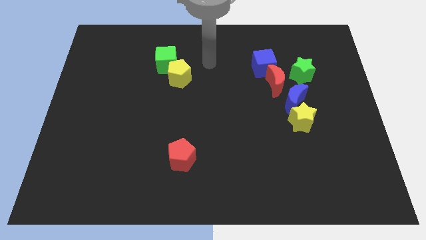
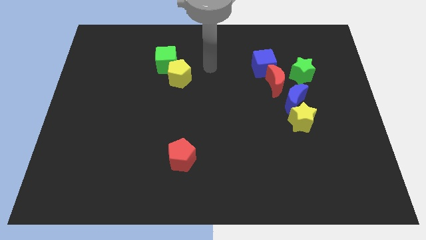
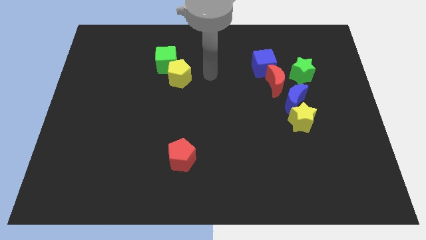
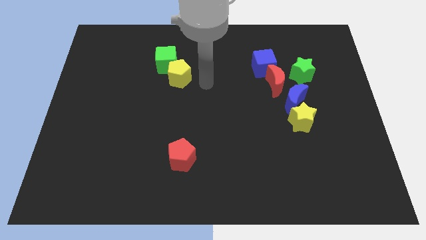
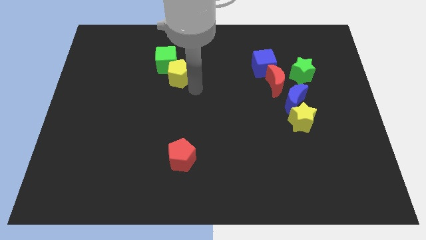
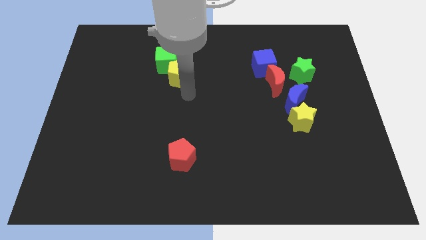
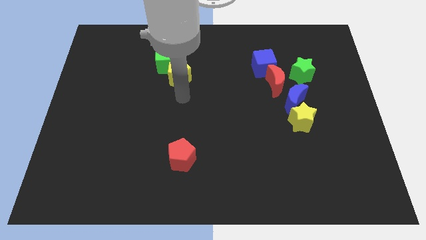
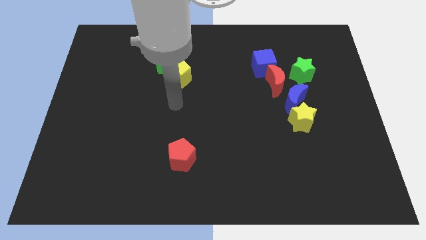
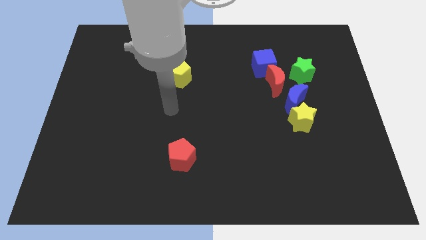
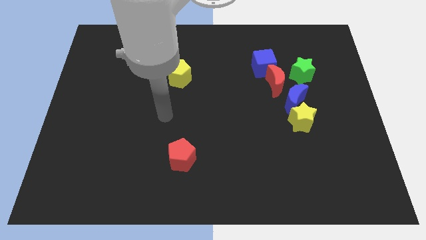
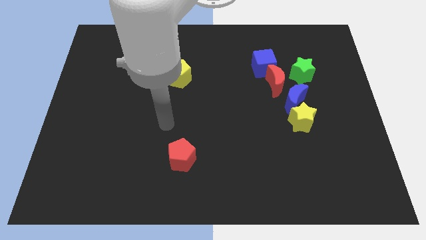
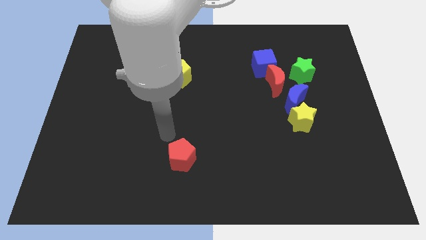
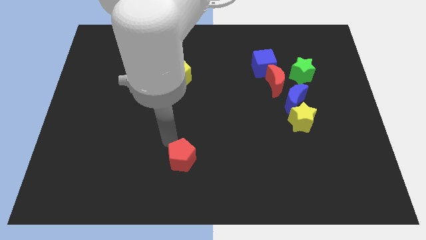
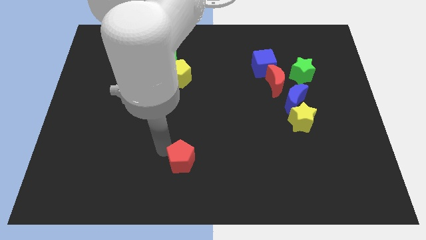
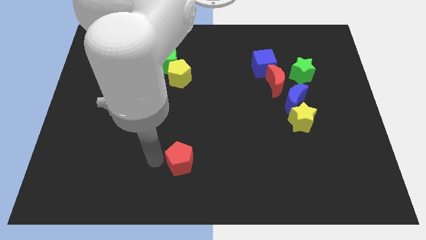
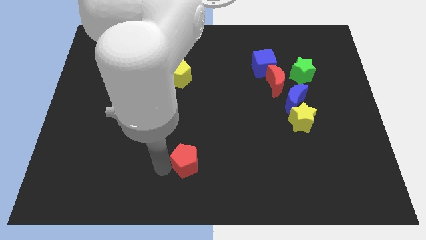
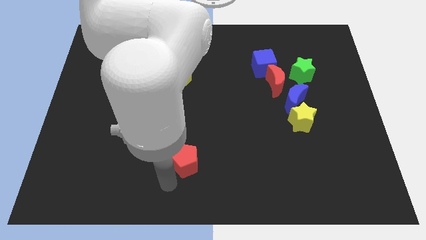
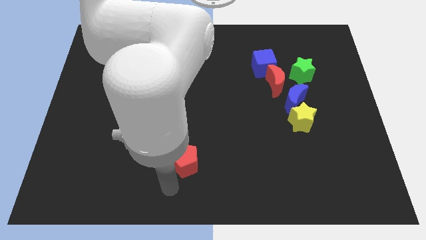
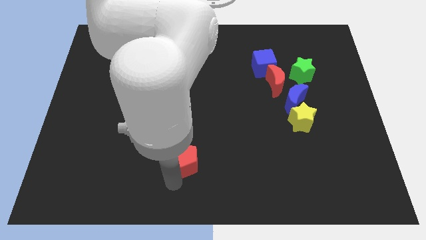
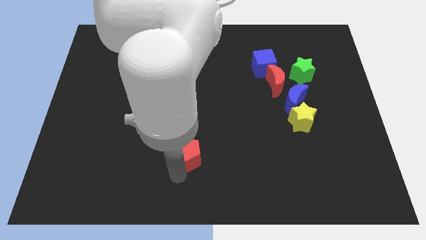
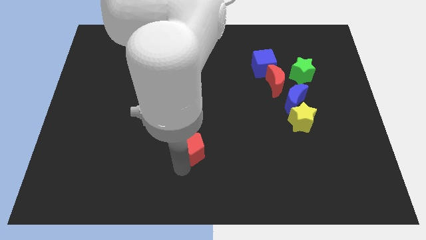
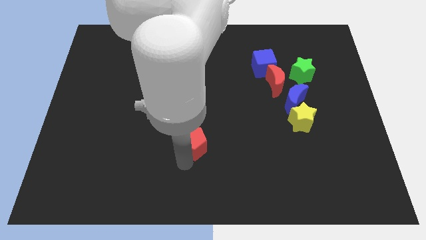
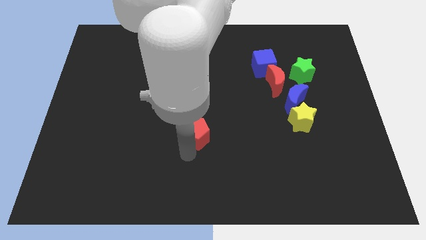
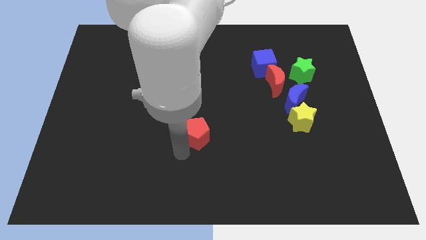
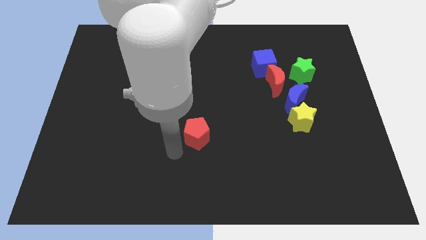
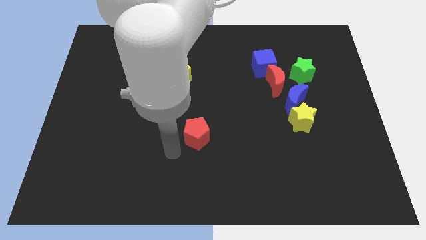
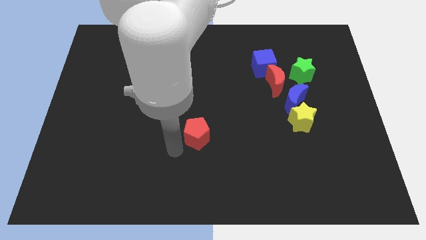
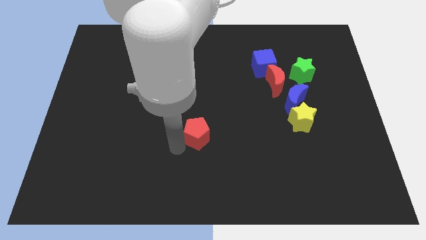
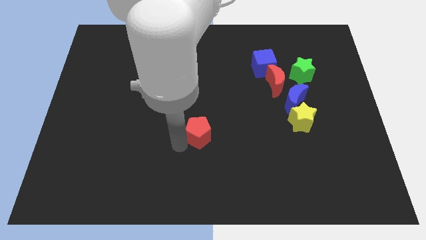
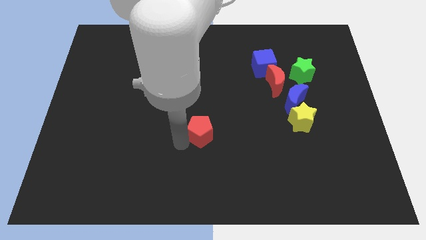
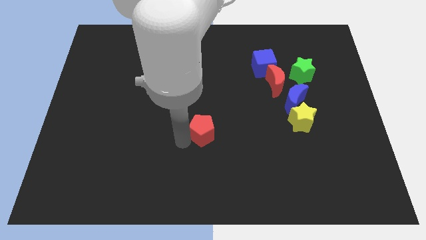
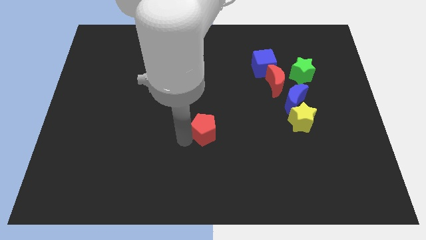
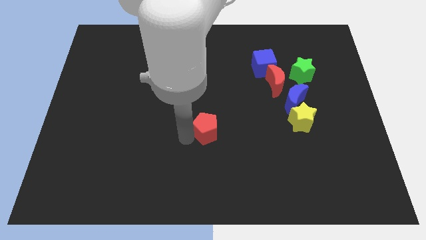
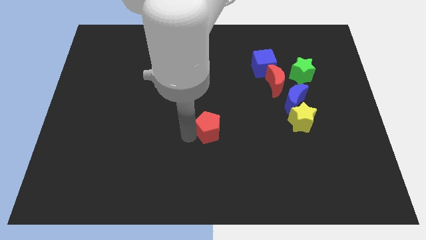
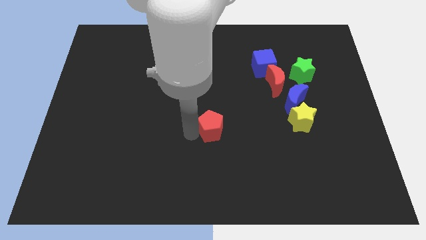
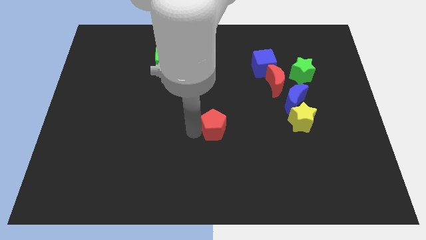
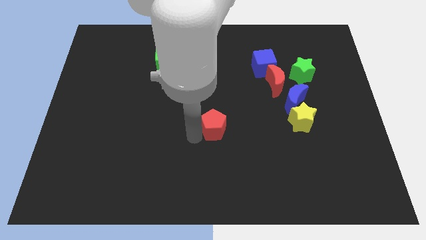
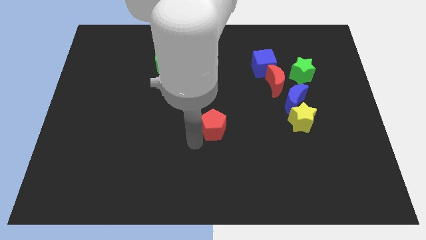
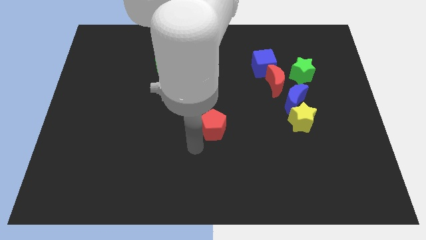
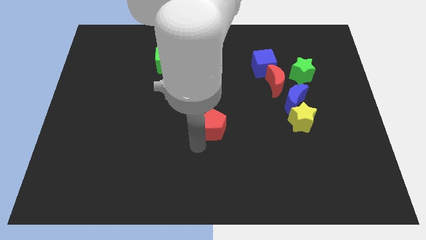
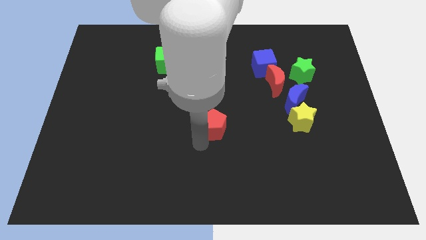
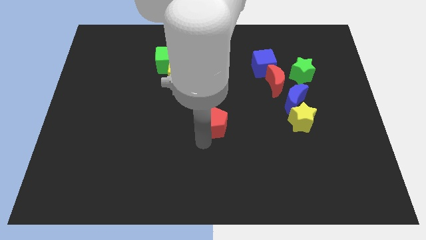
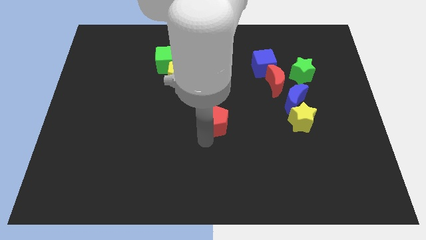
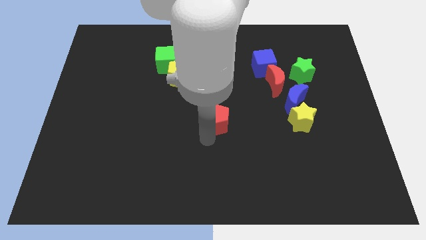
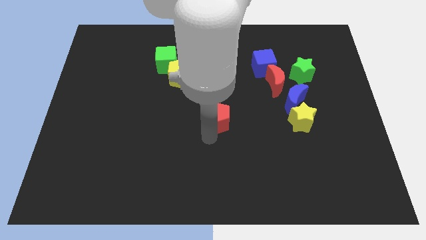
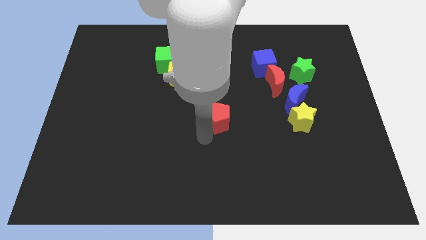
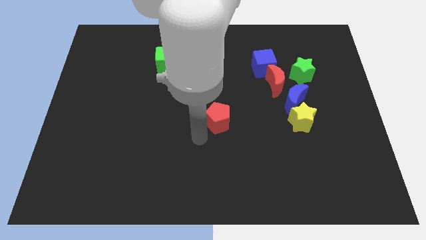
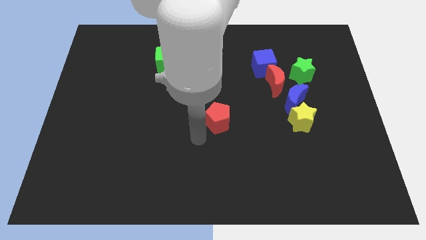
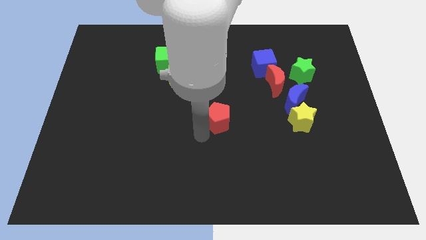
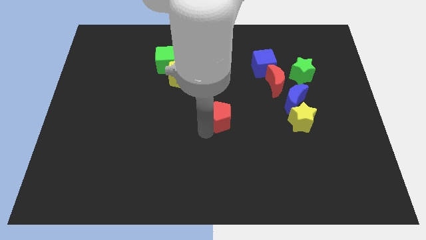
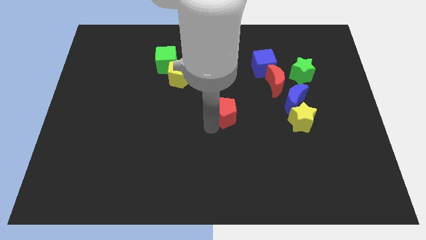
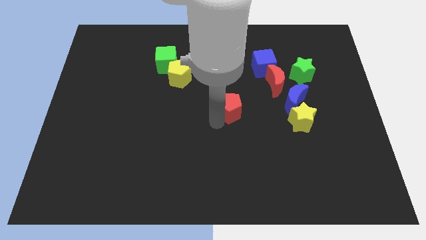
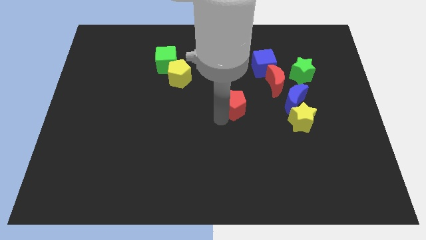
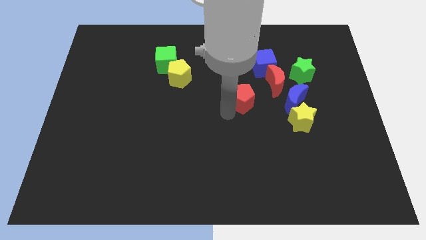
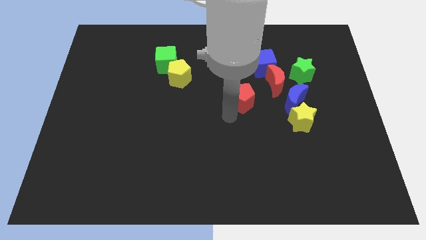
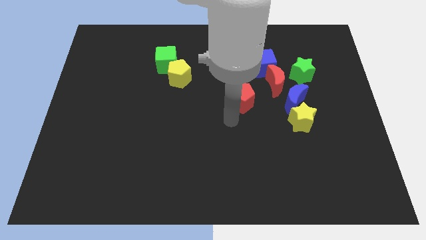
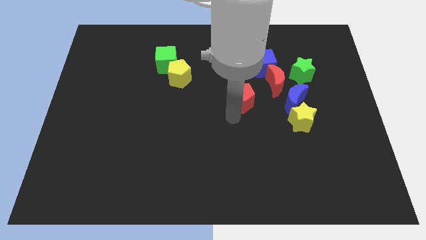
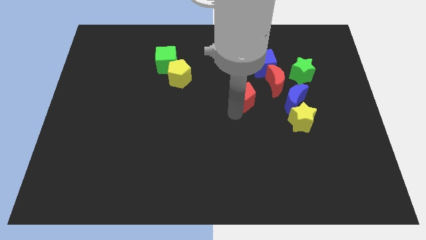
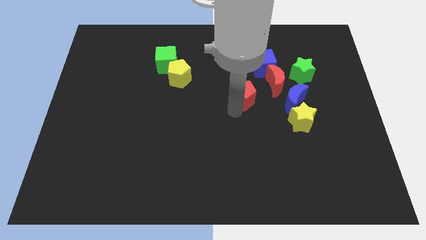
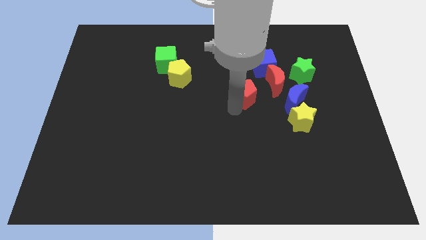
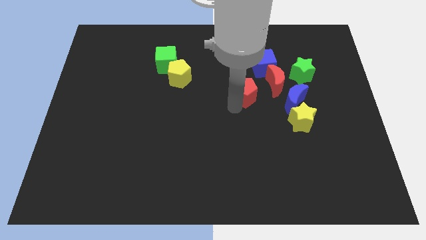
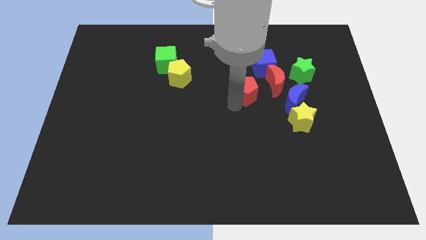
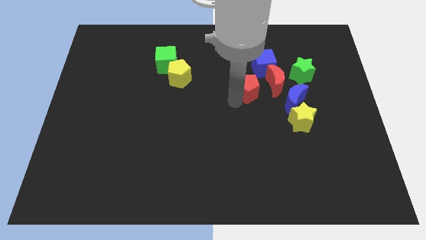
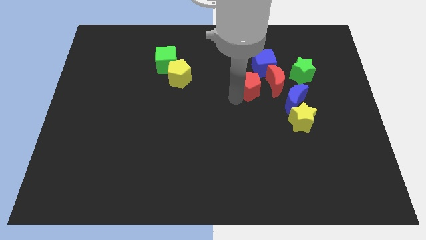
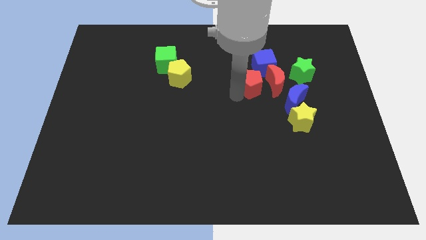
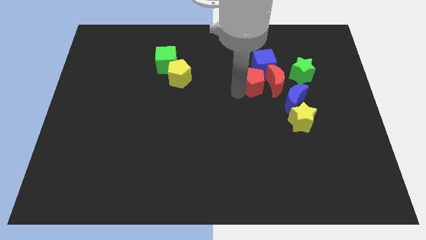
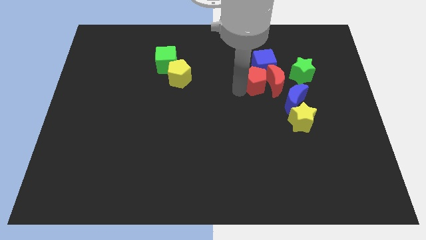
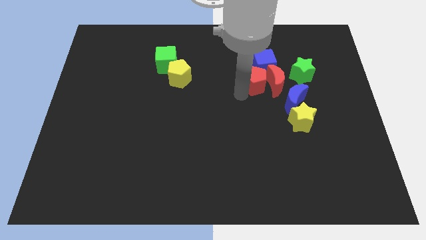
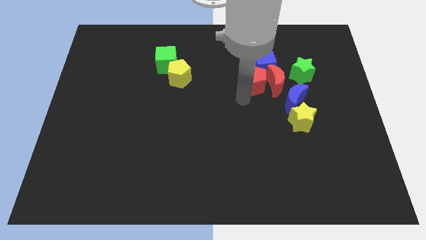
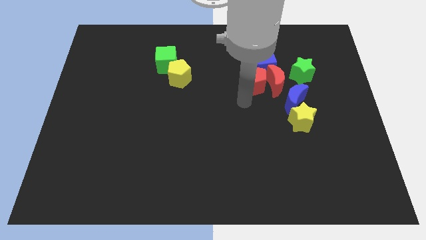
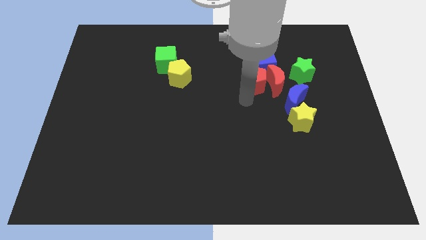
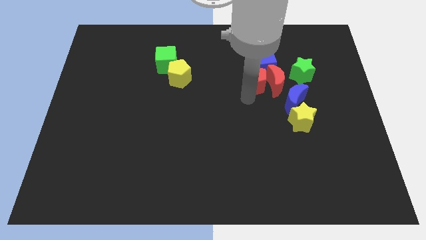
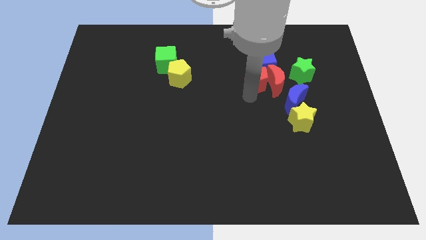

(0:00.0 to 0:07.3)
put the red pentagon to the blue cube

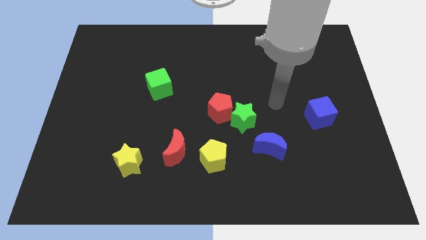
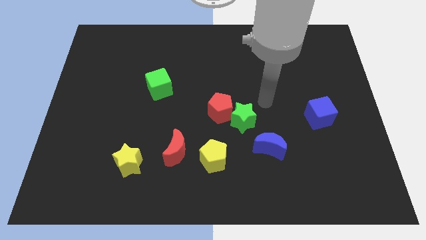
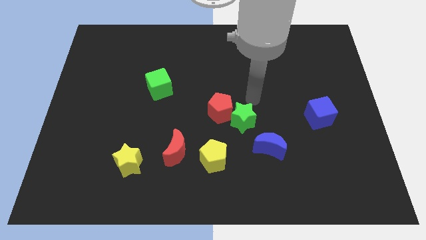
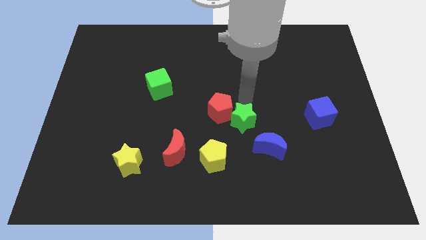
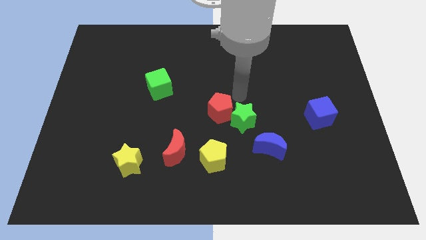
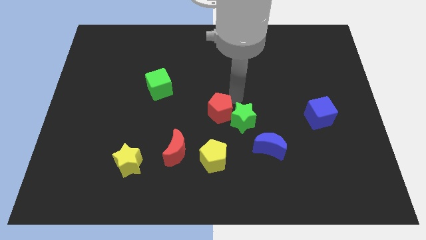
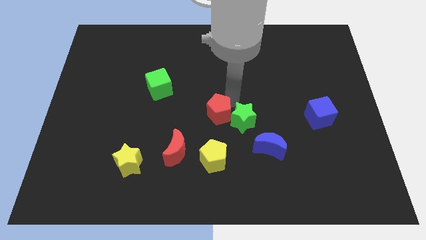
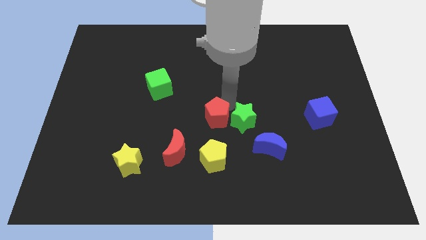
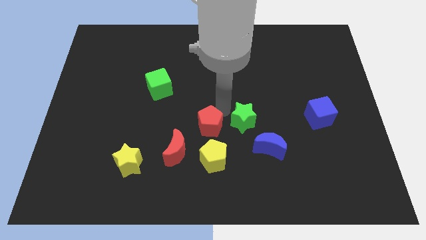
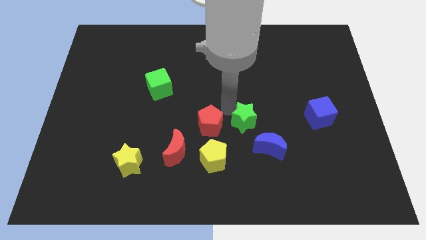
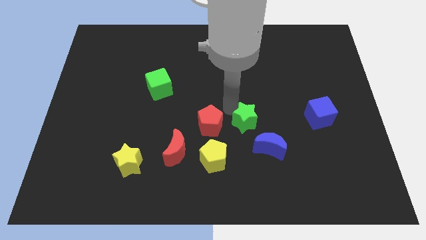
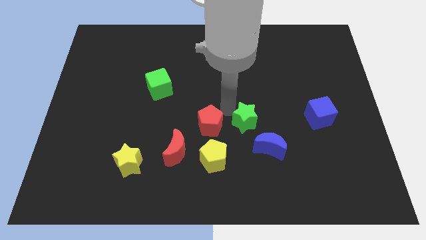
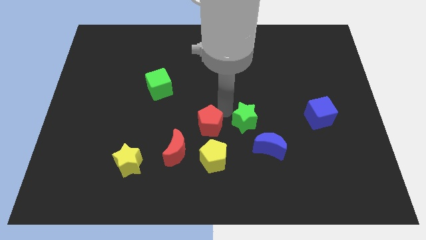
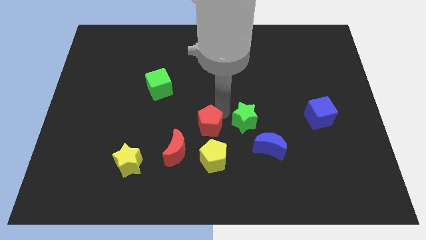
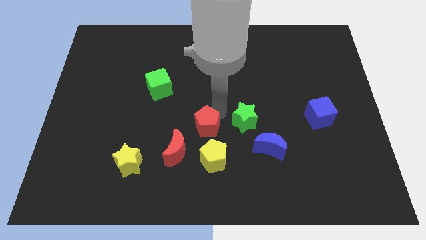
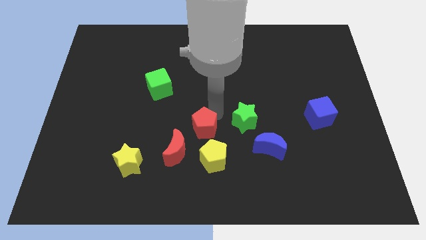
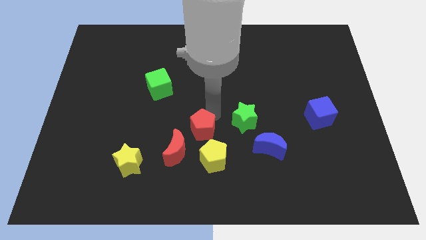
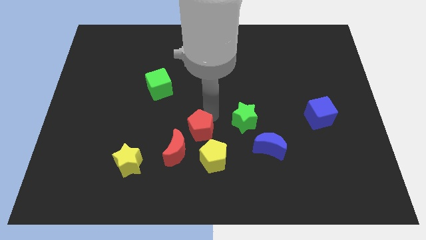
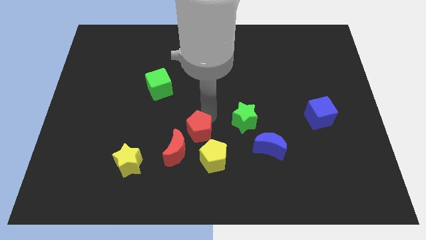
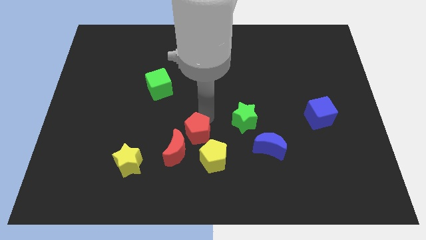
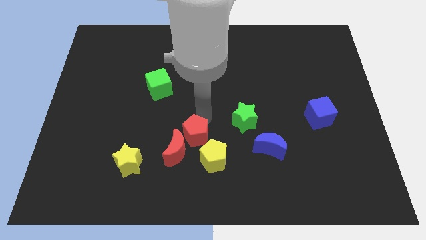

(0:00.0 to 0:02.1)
slide the red pentagon close to the red moon
